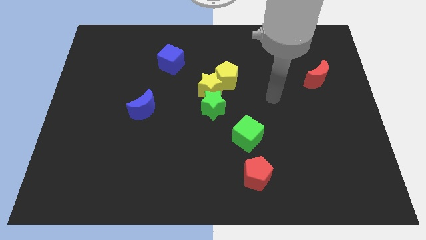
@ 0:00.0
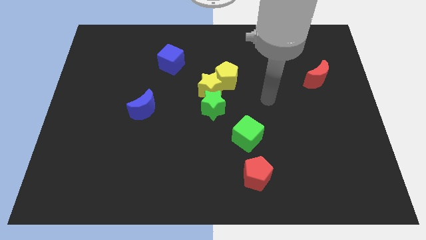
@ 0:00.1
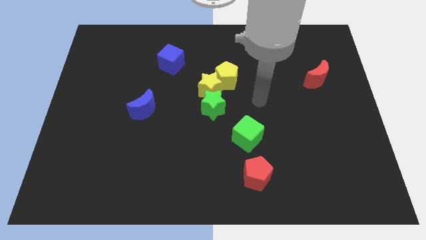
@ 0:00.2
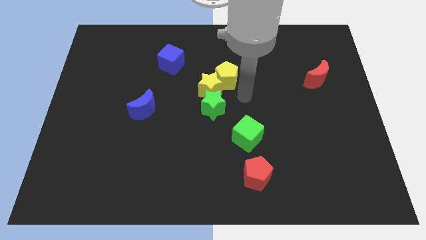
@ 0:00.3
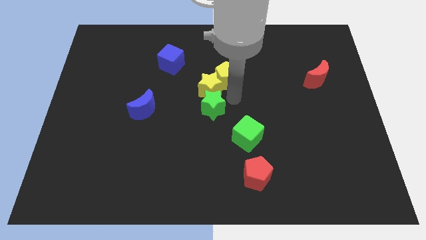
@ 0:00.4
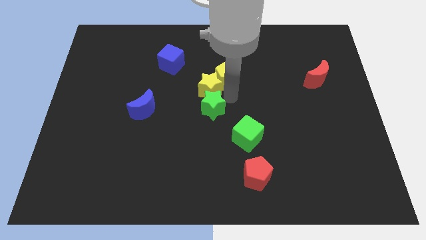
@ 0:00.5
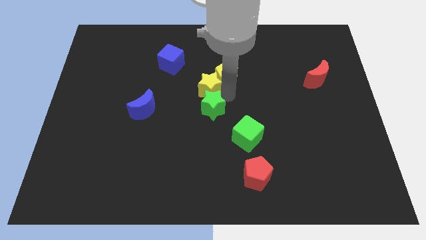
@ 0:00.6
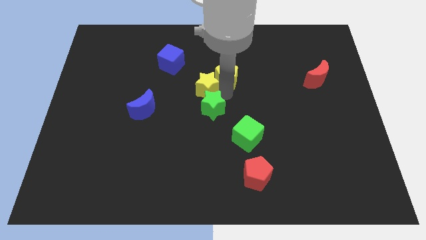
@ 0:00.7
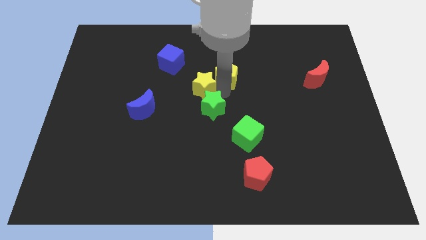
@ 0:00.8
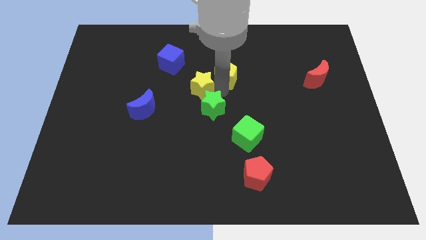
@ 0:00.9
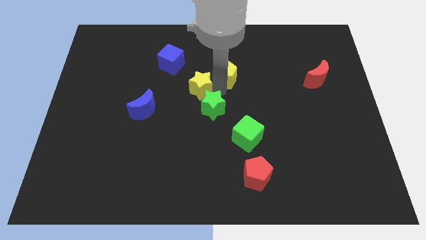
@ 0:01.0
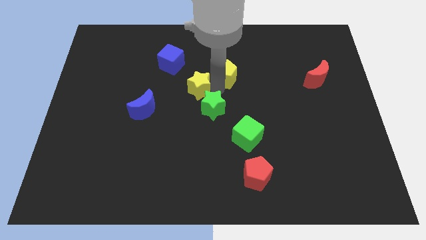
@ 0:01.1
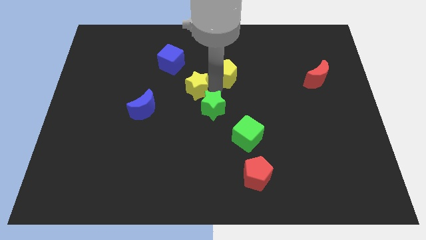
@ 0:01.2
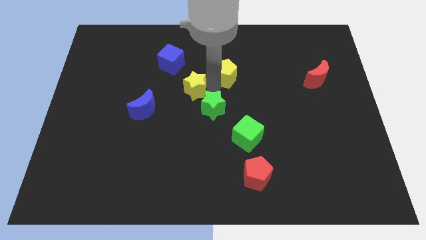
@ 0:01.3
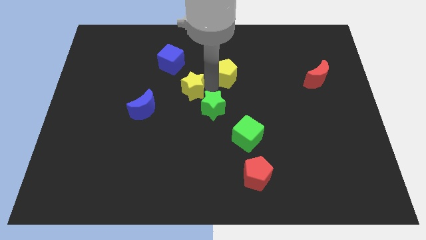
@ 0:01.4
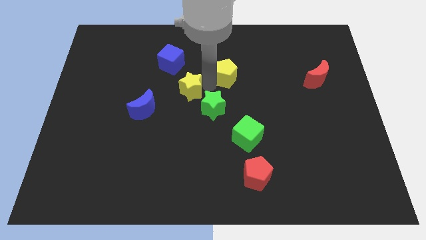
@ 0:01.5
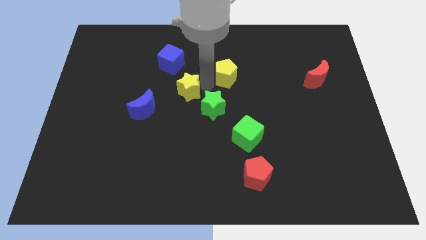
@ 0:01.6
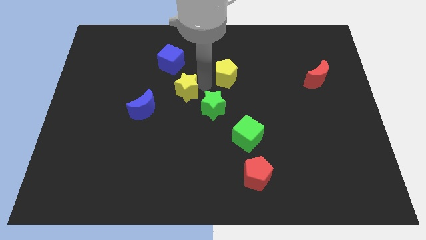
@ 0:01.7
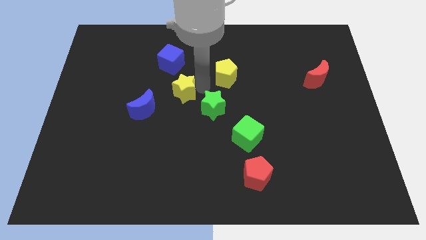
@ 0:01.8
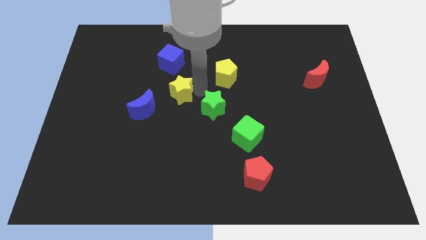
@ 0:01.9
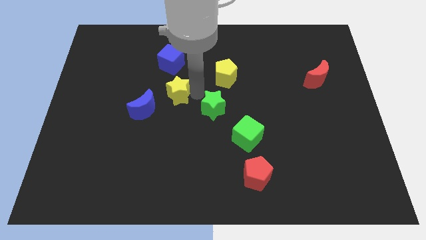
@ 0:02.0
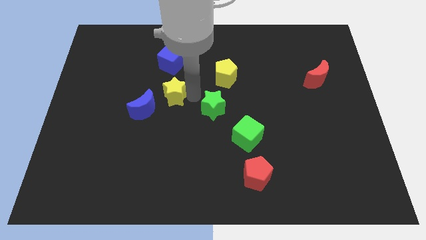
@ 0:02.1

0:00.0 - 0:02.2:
separate the yellow star from the yellow pentagon and green star

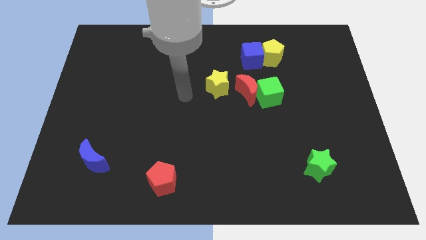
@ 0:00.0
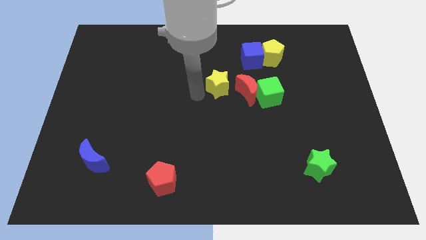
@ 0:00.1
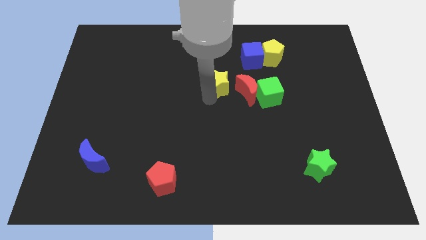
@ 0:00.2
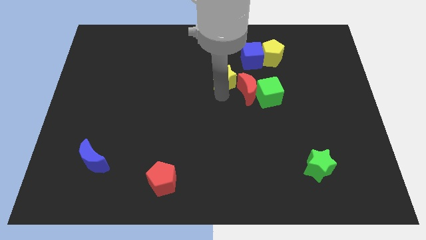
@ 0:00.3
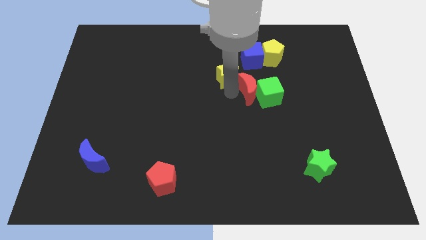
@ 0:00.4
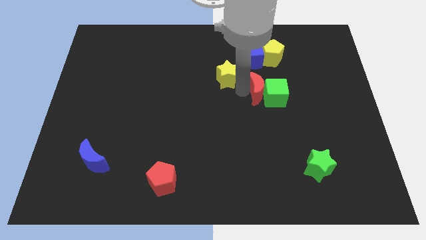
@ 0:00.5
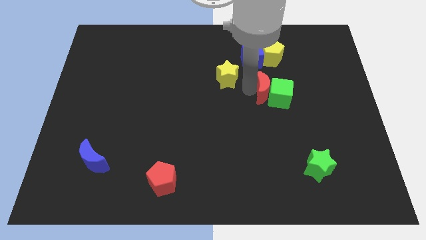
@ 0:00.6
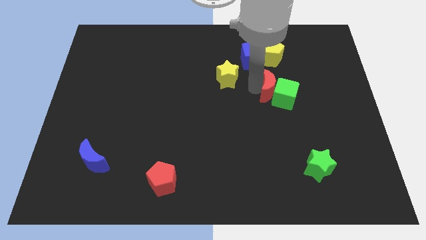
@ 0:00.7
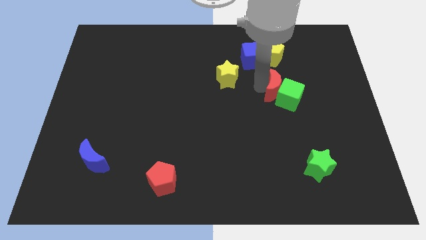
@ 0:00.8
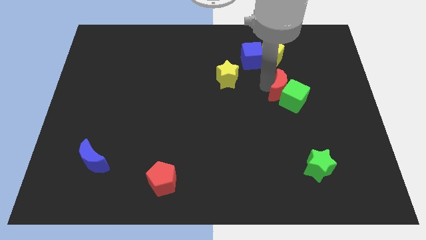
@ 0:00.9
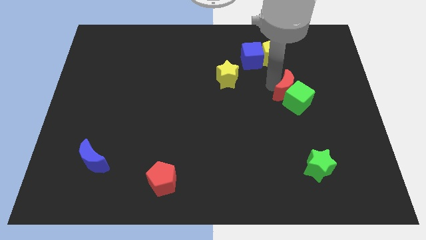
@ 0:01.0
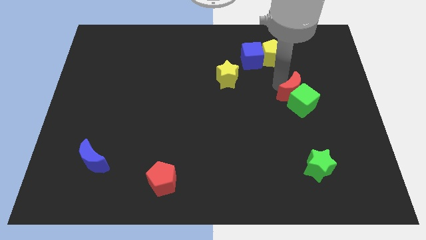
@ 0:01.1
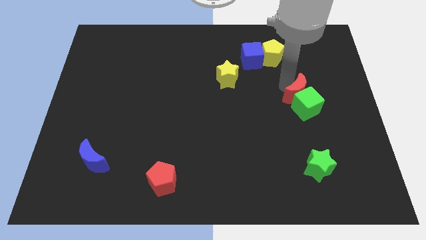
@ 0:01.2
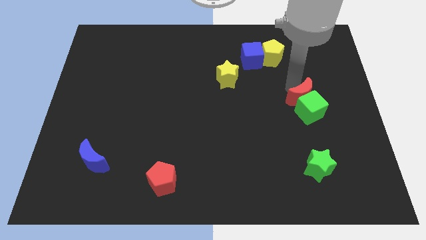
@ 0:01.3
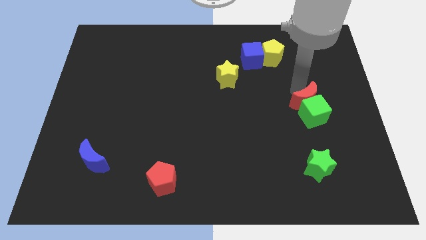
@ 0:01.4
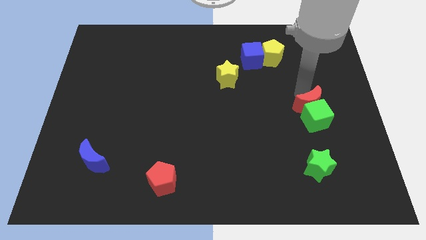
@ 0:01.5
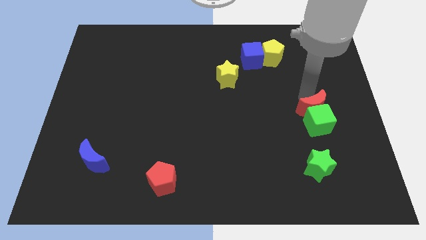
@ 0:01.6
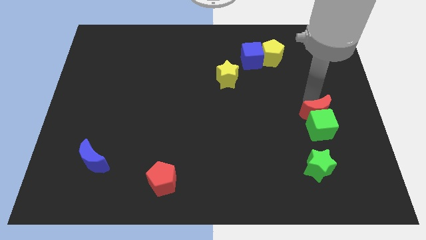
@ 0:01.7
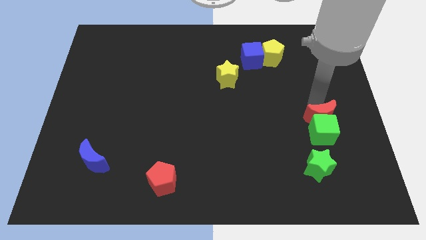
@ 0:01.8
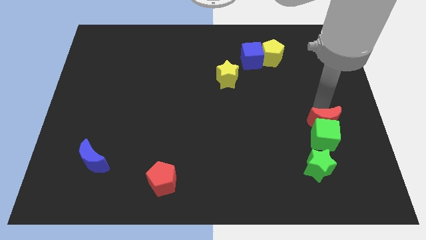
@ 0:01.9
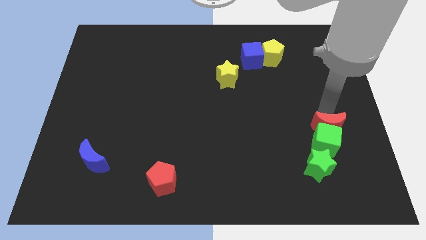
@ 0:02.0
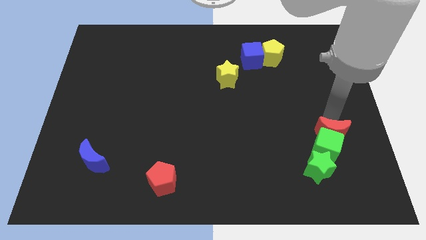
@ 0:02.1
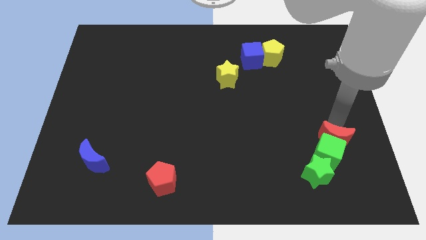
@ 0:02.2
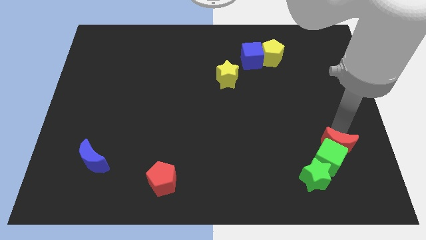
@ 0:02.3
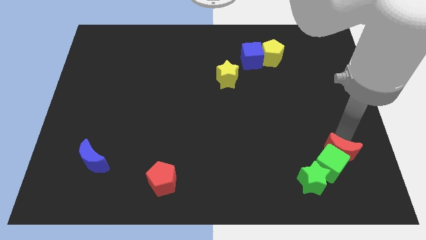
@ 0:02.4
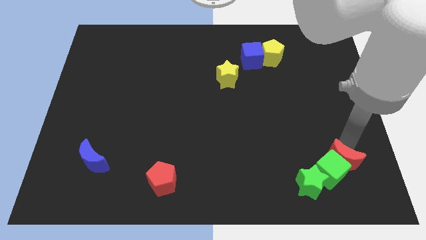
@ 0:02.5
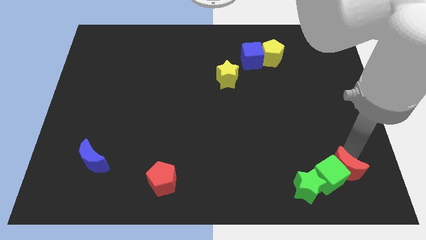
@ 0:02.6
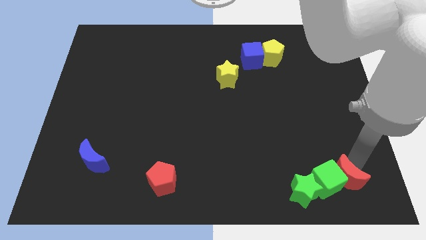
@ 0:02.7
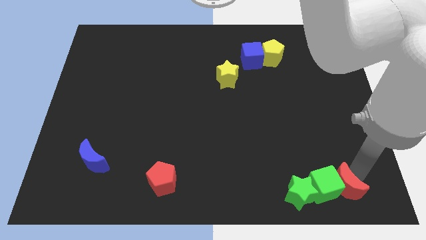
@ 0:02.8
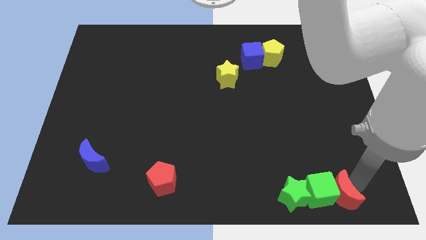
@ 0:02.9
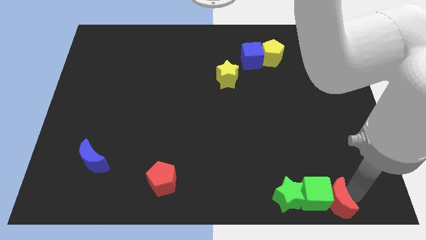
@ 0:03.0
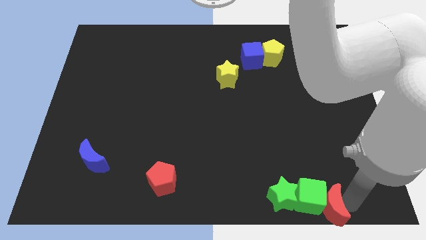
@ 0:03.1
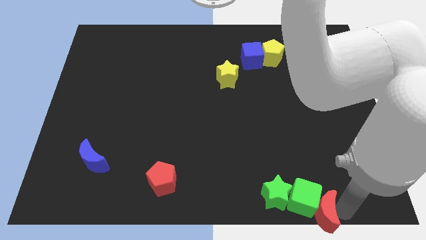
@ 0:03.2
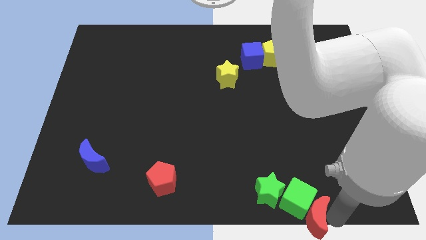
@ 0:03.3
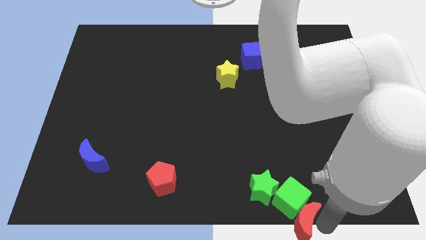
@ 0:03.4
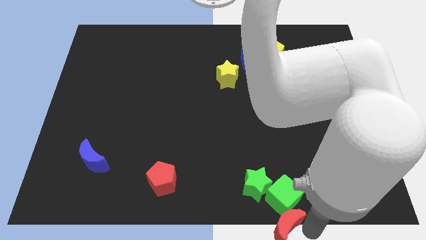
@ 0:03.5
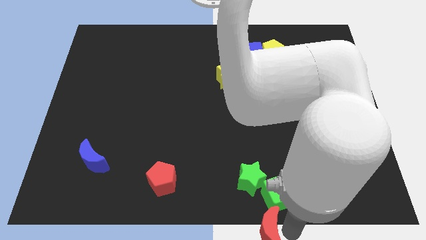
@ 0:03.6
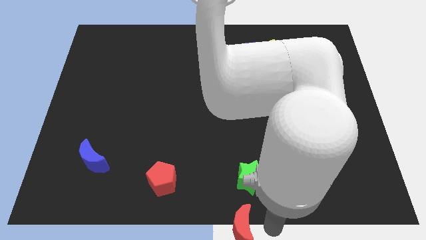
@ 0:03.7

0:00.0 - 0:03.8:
pull the green cube apart from the red moon

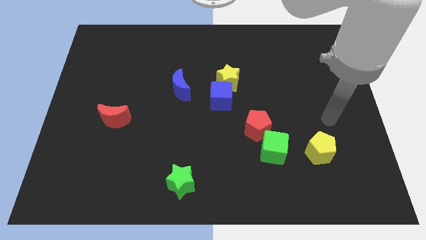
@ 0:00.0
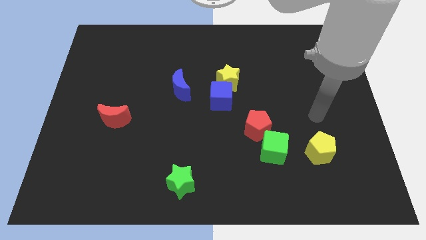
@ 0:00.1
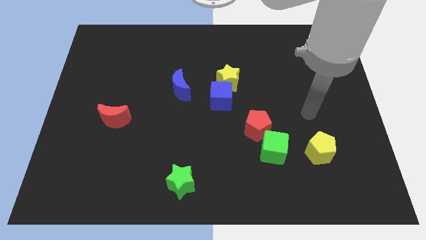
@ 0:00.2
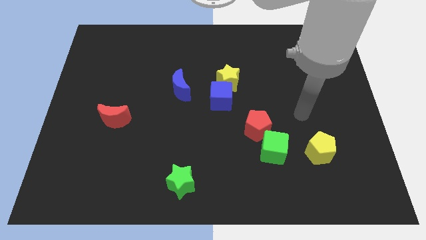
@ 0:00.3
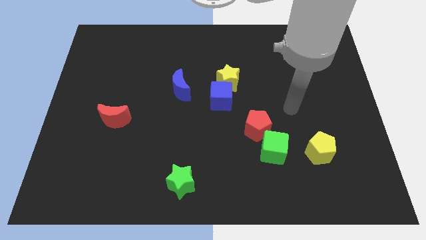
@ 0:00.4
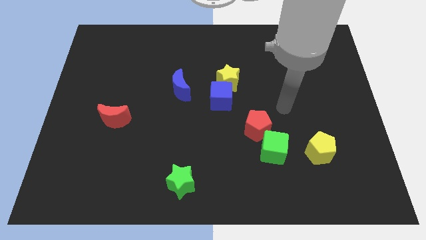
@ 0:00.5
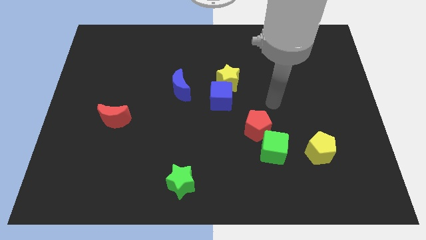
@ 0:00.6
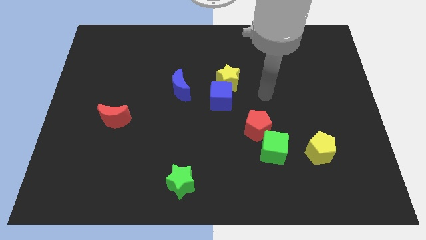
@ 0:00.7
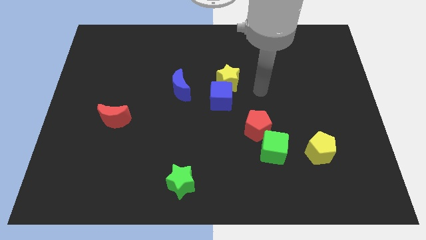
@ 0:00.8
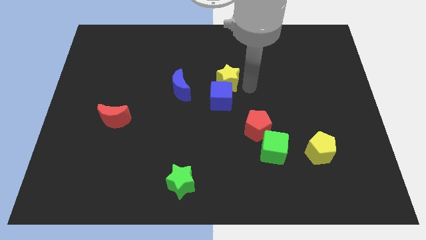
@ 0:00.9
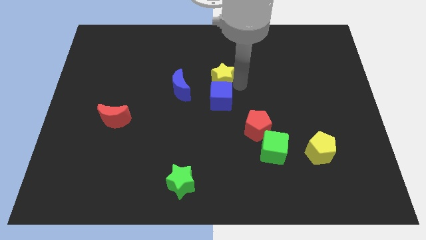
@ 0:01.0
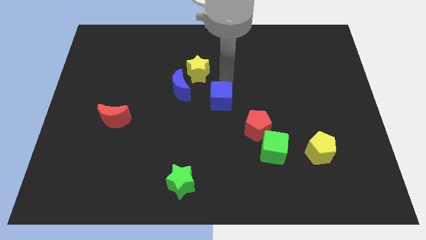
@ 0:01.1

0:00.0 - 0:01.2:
separate the blue cube from the yellow star

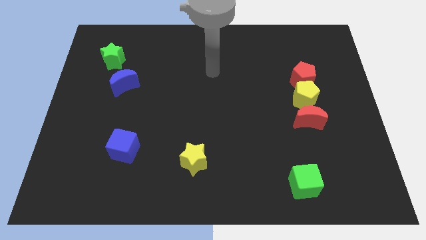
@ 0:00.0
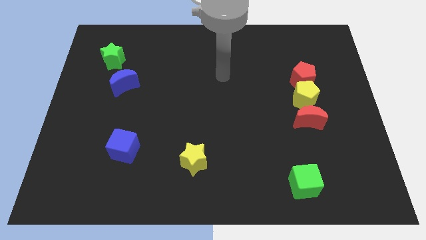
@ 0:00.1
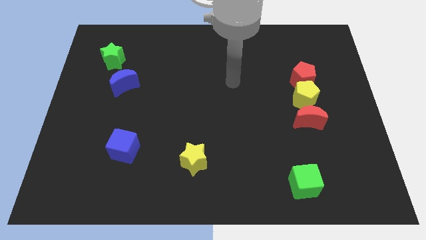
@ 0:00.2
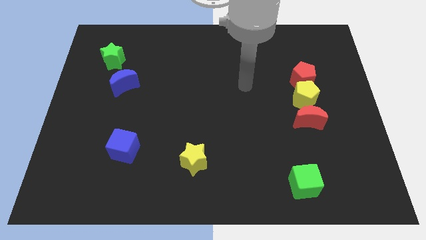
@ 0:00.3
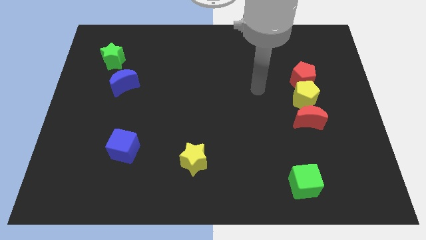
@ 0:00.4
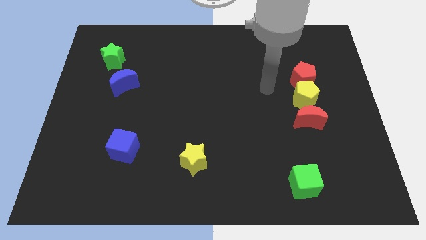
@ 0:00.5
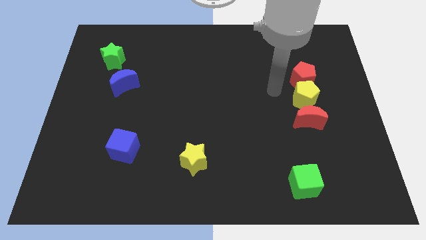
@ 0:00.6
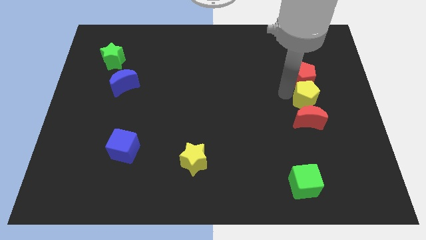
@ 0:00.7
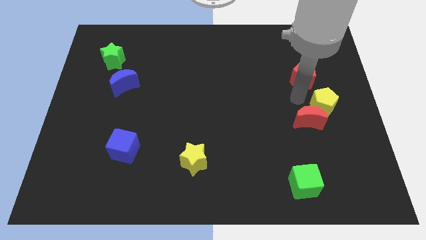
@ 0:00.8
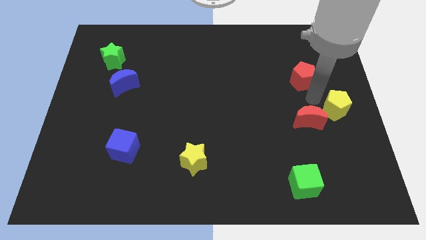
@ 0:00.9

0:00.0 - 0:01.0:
move the red pentagon away from the yellow pentagon

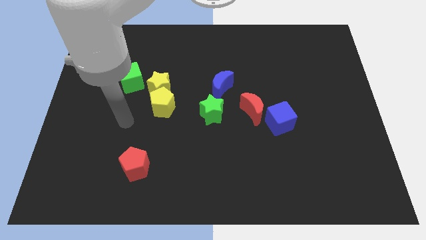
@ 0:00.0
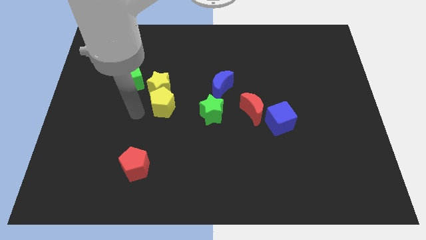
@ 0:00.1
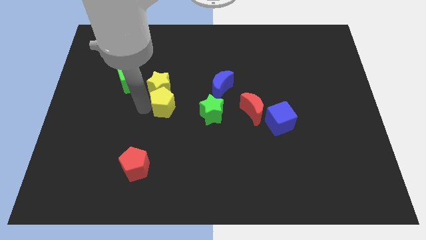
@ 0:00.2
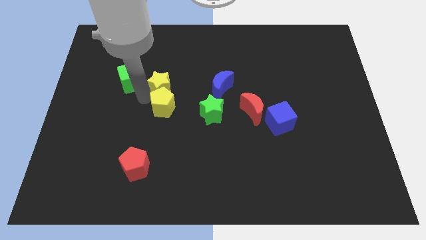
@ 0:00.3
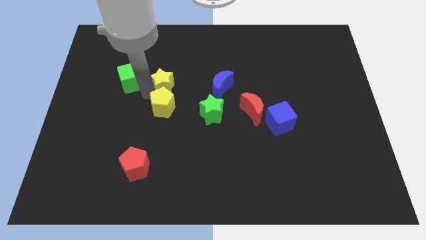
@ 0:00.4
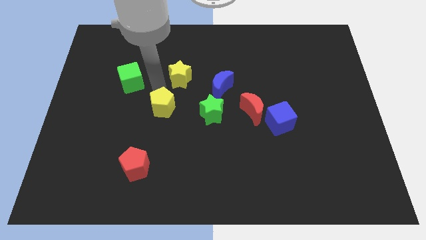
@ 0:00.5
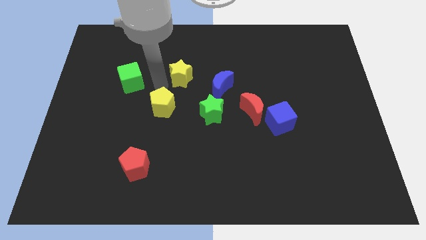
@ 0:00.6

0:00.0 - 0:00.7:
pull the yellow pentagon apart from the yellow star

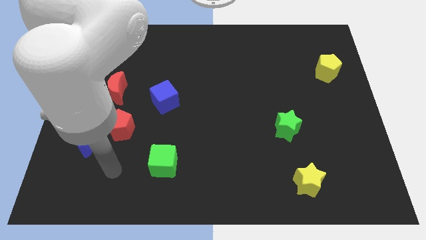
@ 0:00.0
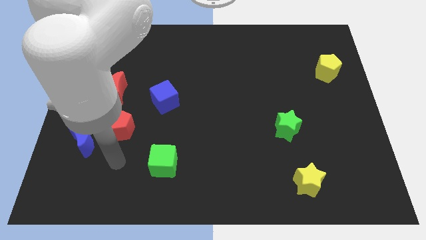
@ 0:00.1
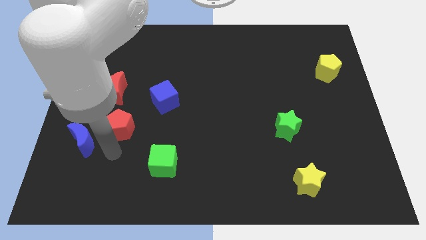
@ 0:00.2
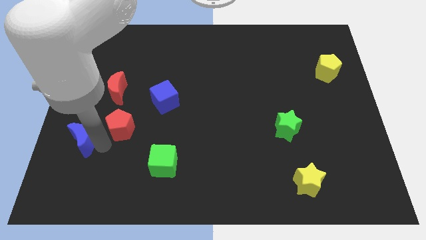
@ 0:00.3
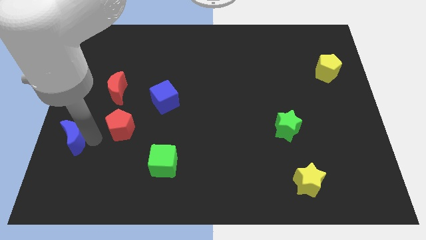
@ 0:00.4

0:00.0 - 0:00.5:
move the red pentagon away from the blue moon
